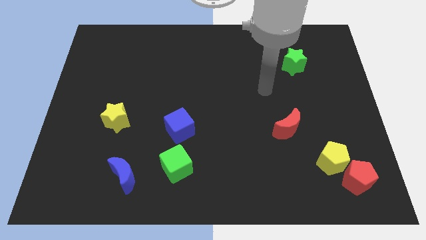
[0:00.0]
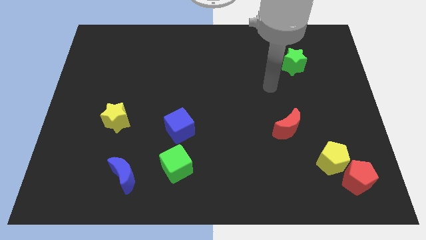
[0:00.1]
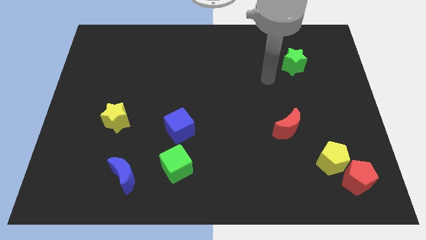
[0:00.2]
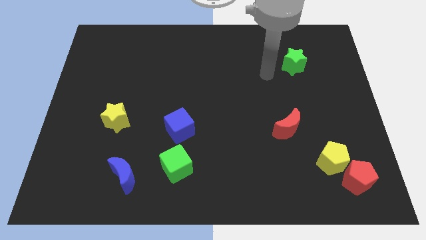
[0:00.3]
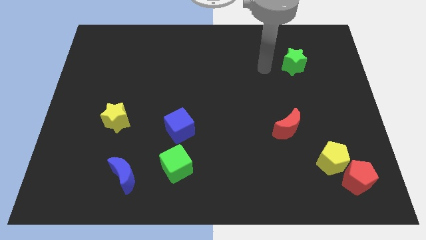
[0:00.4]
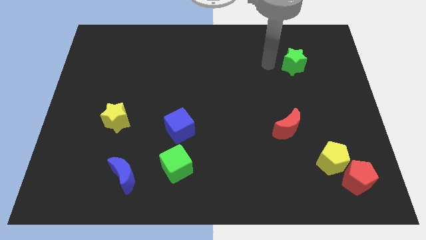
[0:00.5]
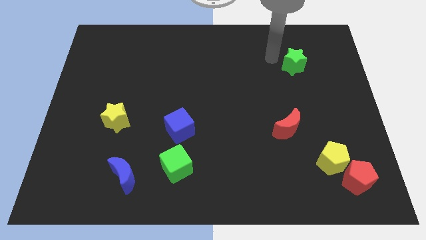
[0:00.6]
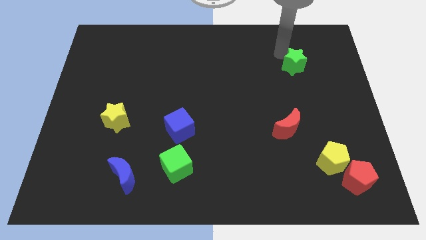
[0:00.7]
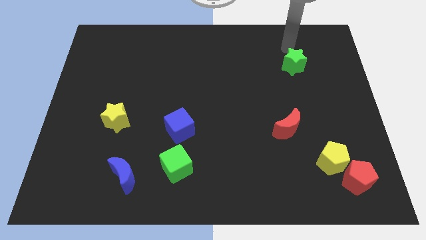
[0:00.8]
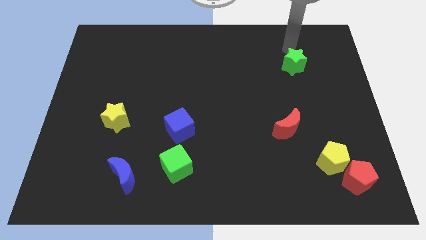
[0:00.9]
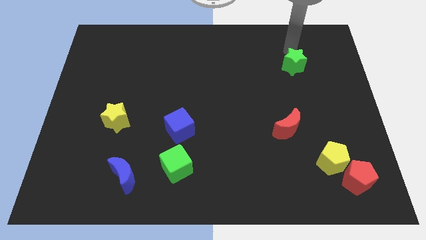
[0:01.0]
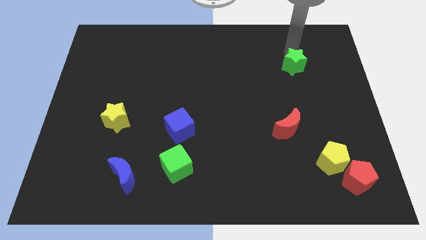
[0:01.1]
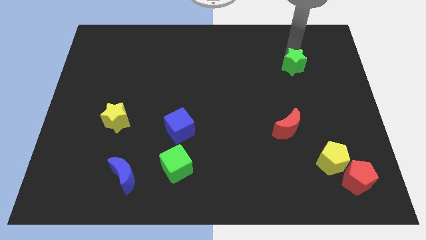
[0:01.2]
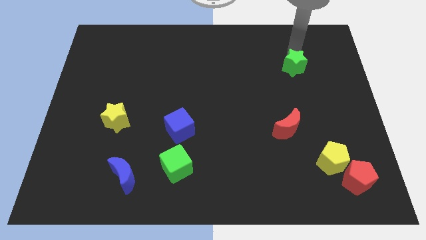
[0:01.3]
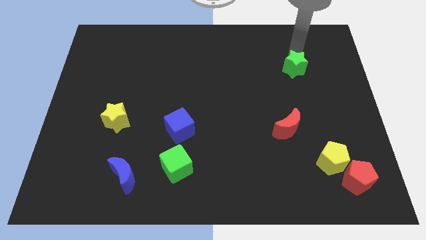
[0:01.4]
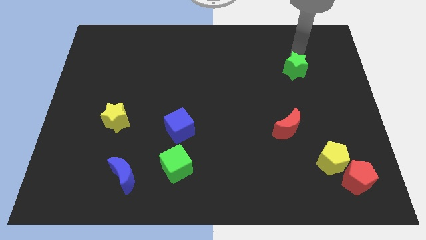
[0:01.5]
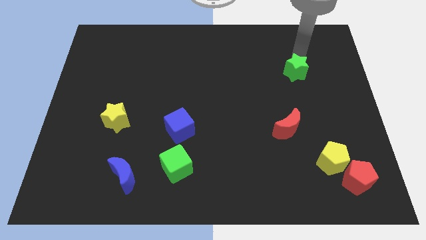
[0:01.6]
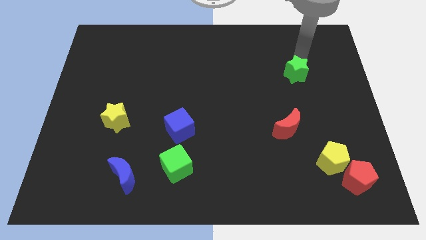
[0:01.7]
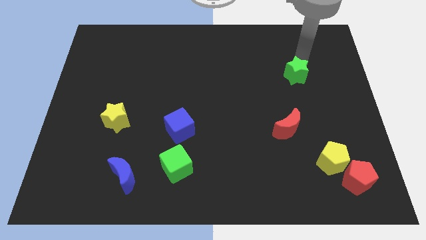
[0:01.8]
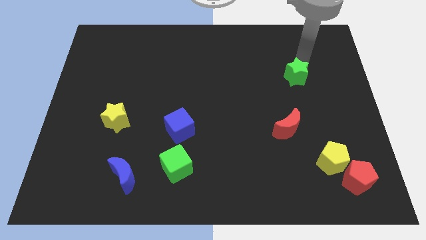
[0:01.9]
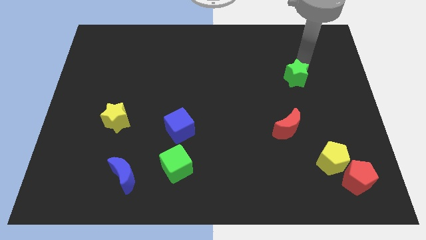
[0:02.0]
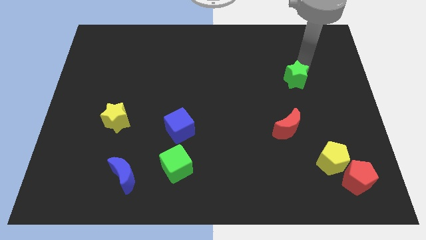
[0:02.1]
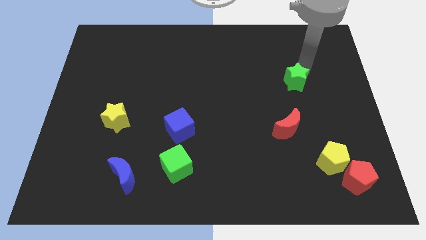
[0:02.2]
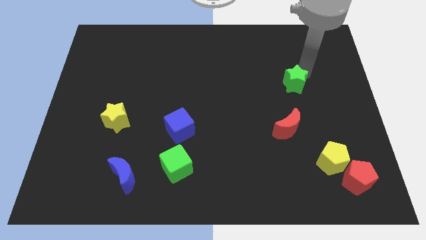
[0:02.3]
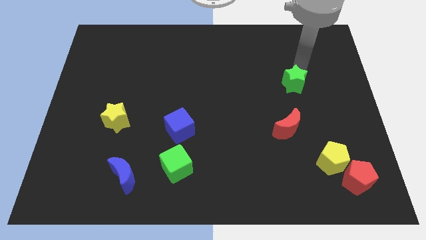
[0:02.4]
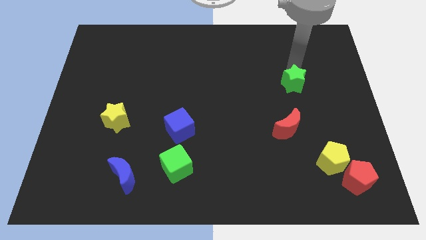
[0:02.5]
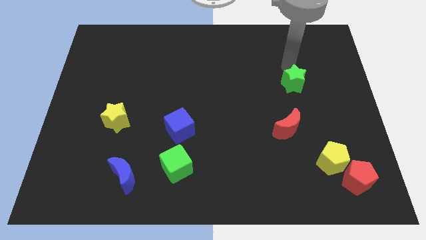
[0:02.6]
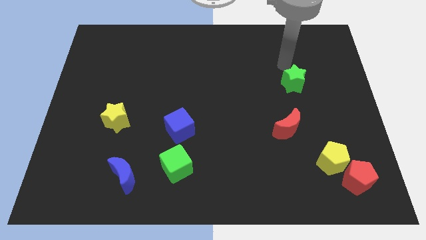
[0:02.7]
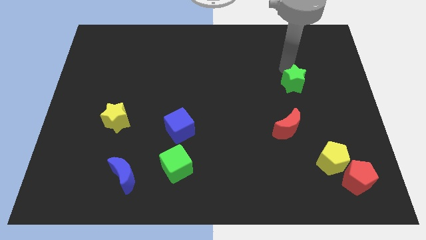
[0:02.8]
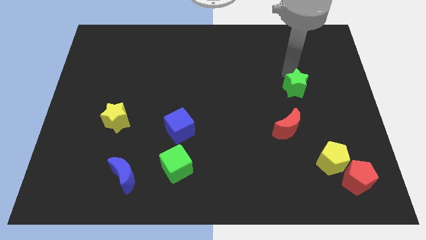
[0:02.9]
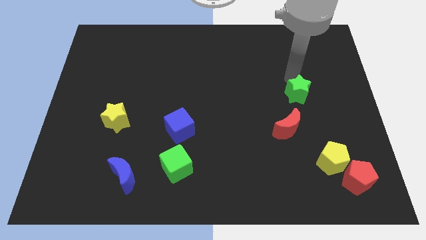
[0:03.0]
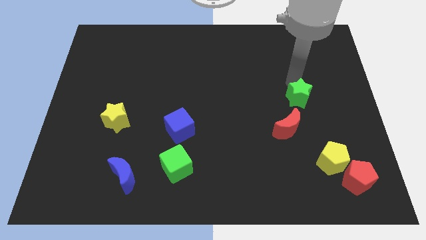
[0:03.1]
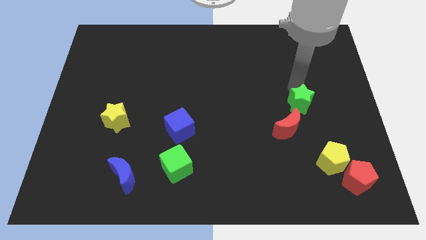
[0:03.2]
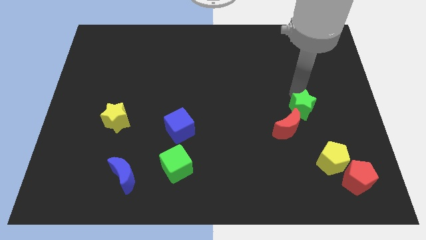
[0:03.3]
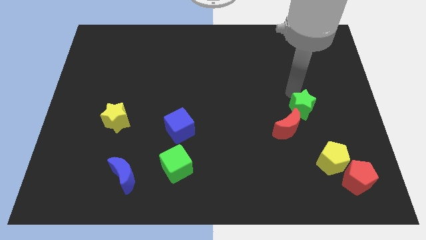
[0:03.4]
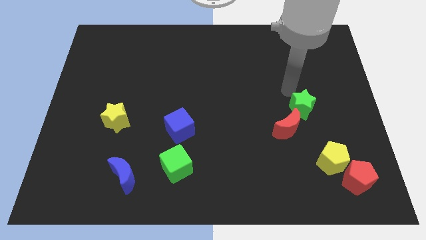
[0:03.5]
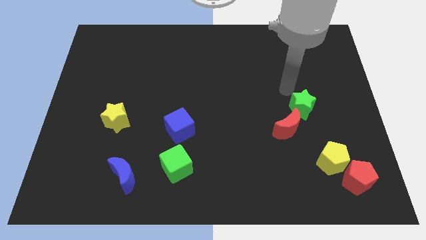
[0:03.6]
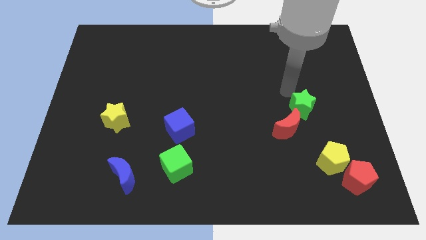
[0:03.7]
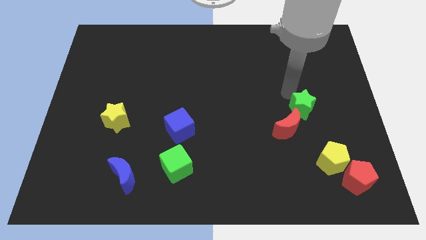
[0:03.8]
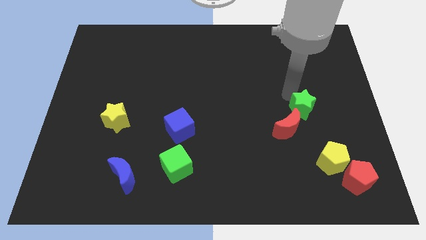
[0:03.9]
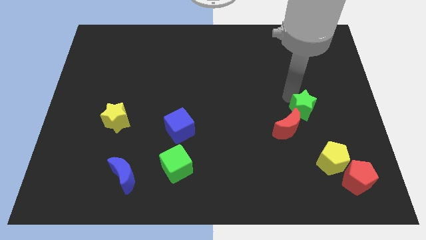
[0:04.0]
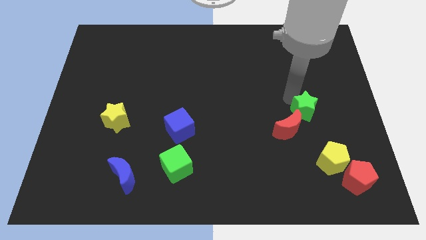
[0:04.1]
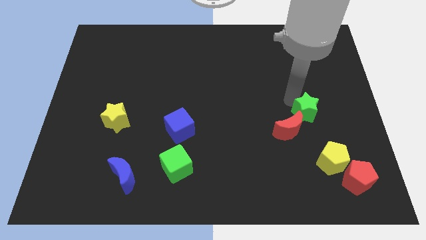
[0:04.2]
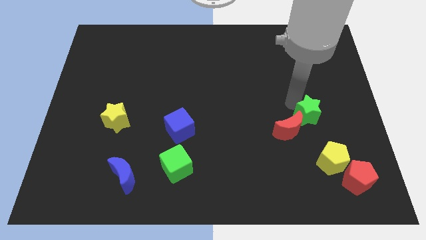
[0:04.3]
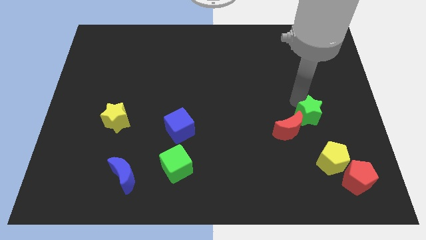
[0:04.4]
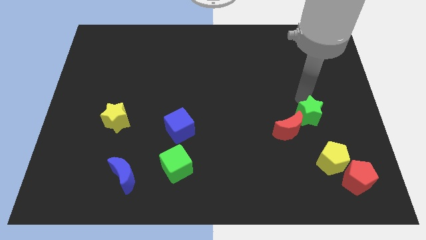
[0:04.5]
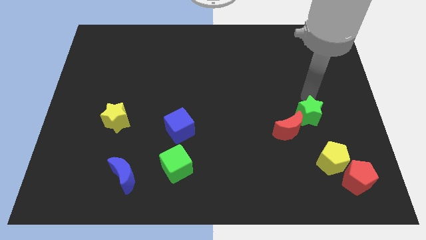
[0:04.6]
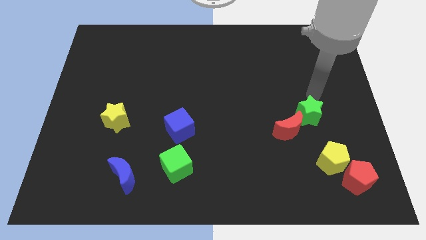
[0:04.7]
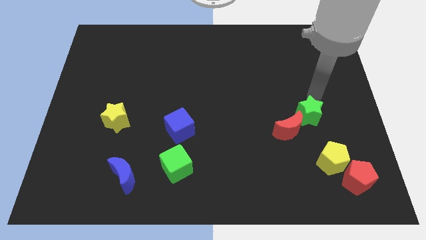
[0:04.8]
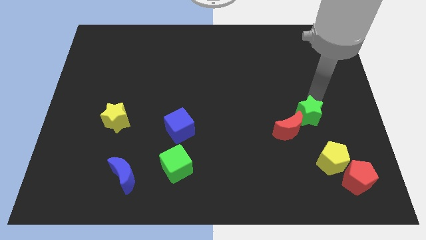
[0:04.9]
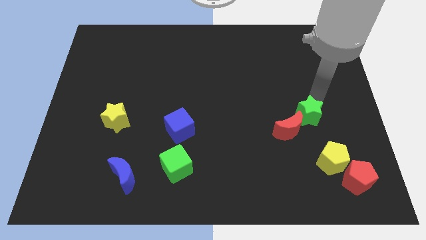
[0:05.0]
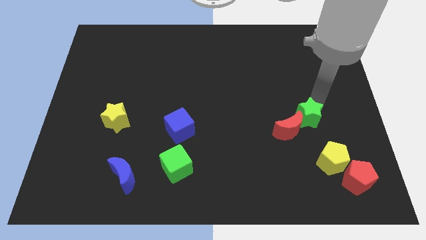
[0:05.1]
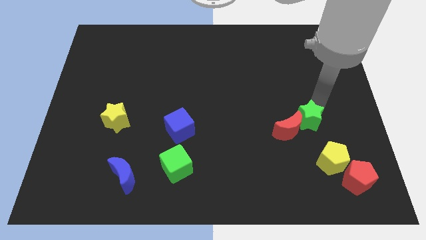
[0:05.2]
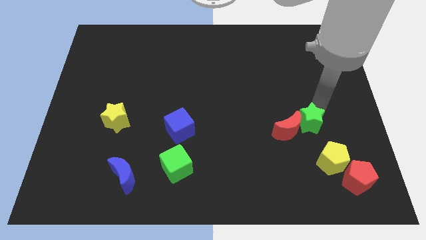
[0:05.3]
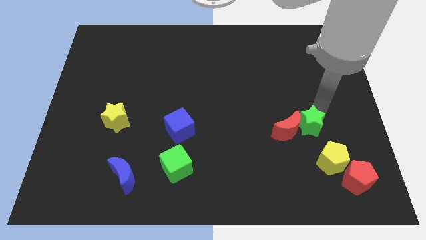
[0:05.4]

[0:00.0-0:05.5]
put the green star diagonally up and to the left of the yellow pentagon

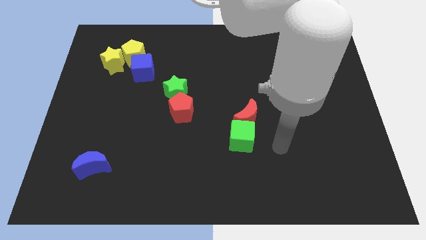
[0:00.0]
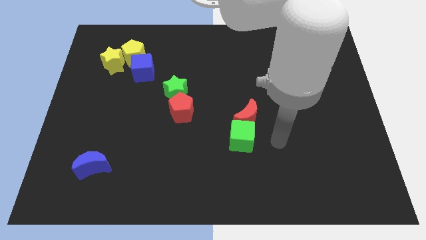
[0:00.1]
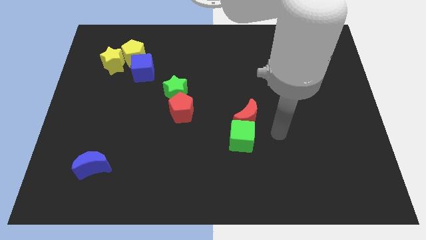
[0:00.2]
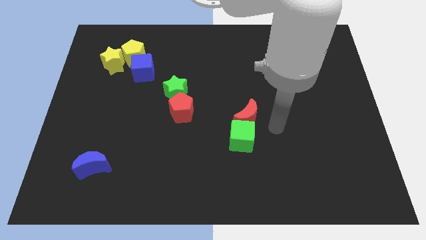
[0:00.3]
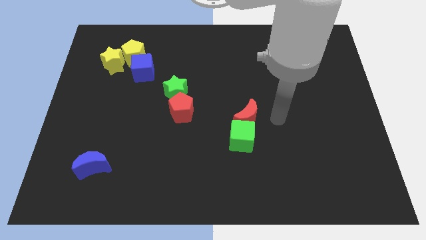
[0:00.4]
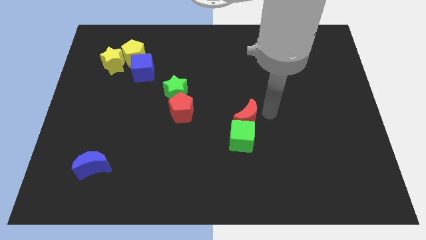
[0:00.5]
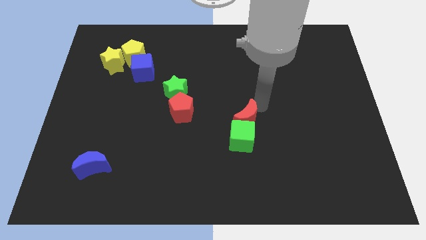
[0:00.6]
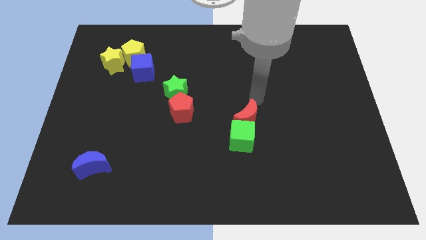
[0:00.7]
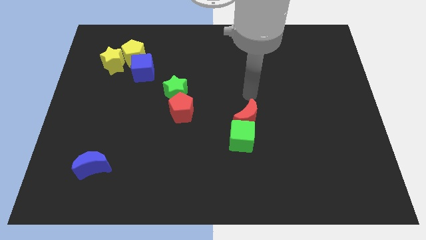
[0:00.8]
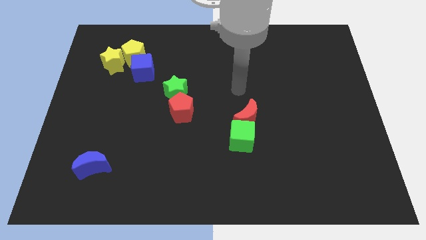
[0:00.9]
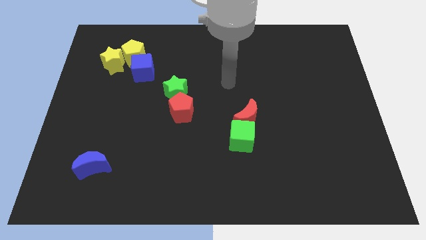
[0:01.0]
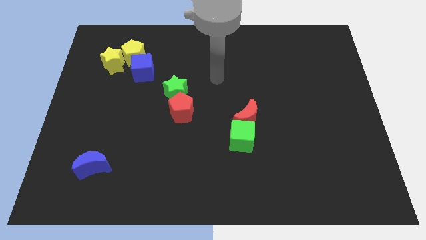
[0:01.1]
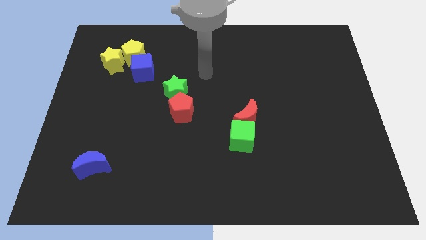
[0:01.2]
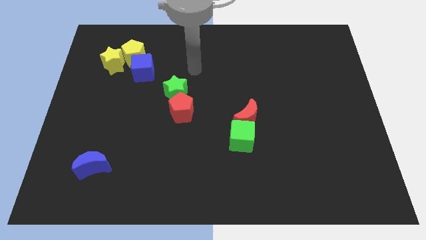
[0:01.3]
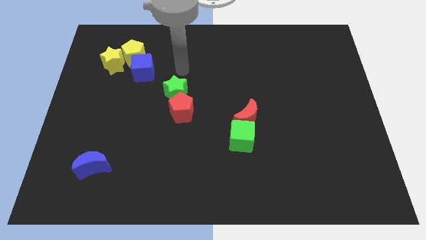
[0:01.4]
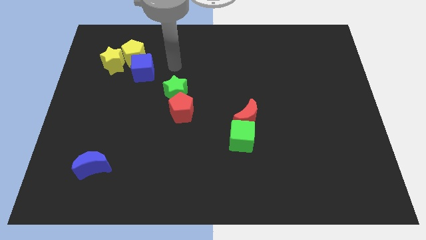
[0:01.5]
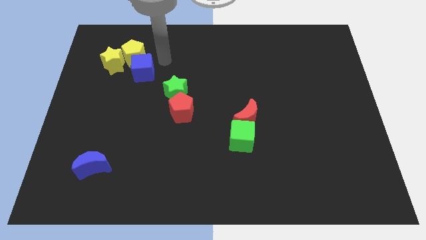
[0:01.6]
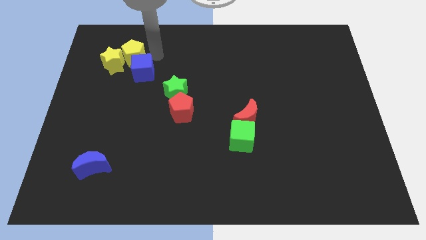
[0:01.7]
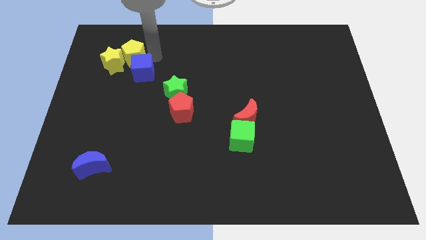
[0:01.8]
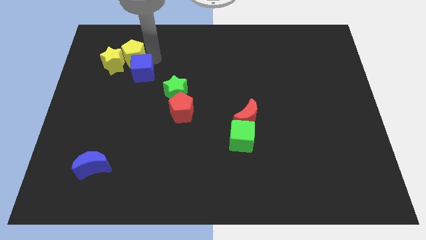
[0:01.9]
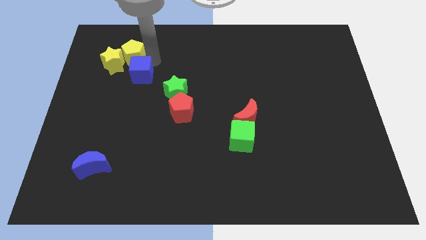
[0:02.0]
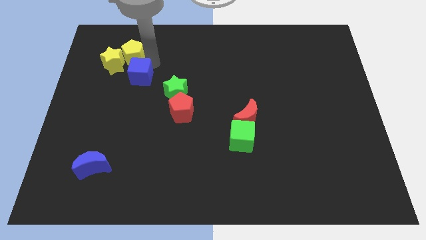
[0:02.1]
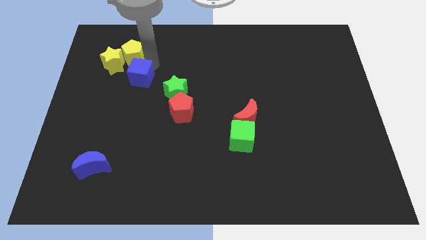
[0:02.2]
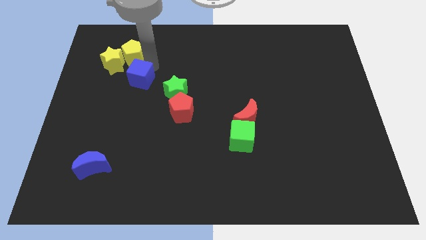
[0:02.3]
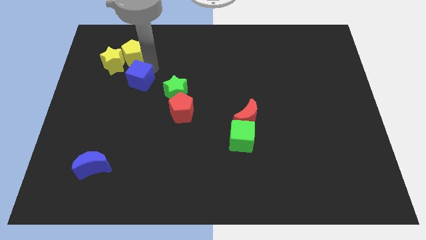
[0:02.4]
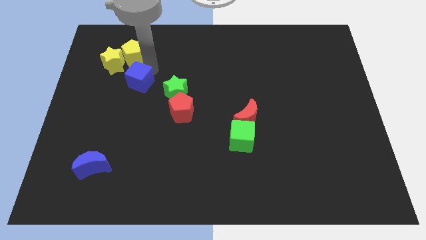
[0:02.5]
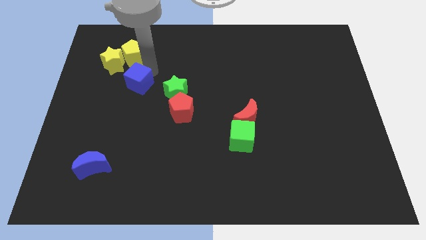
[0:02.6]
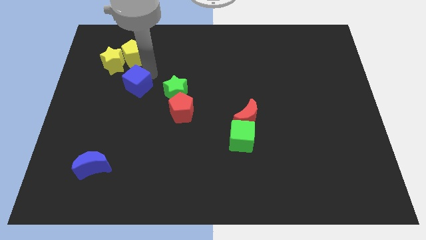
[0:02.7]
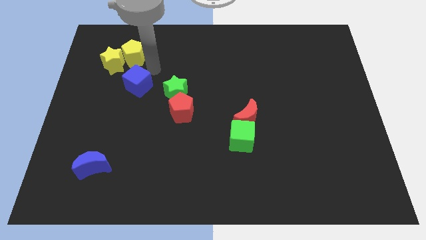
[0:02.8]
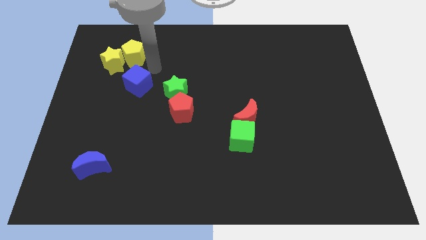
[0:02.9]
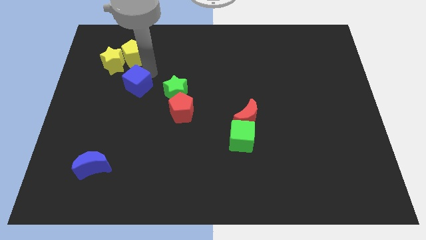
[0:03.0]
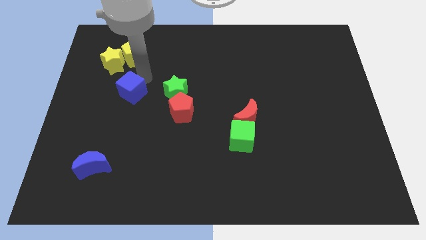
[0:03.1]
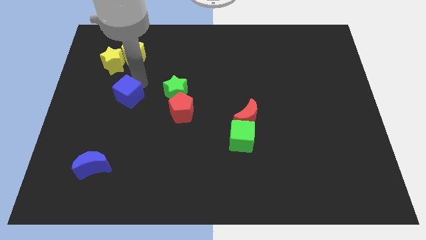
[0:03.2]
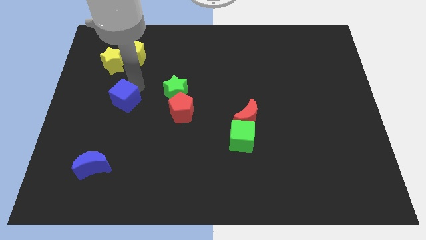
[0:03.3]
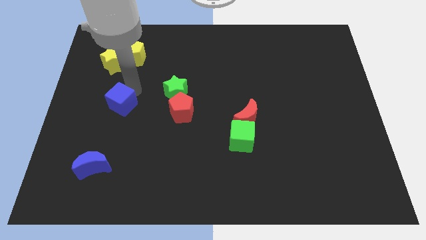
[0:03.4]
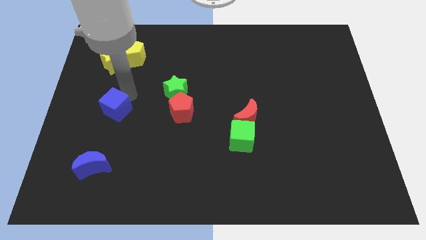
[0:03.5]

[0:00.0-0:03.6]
push the blue cube to the top side of the blue moon
